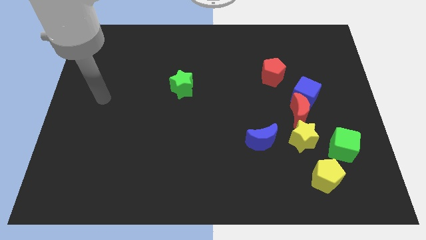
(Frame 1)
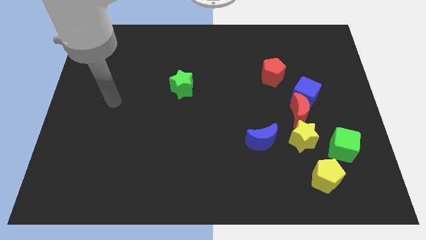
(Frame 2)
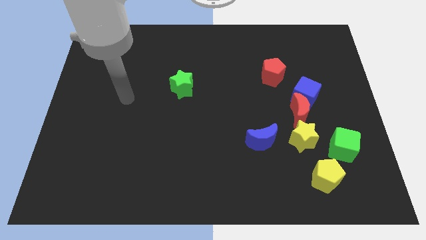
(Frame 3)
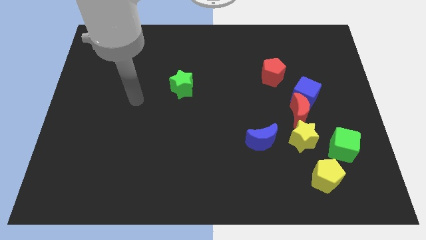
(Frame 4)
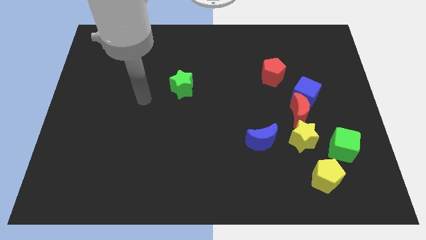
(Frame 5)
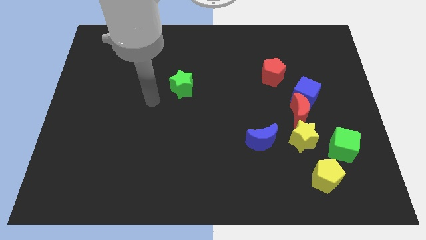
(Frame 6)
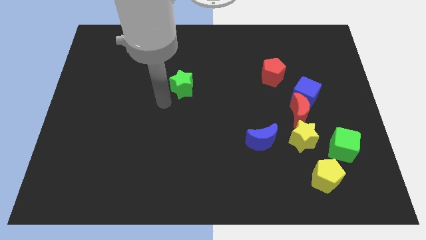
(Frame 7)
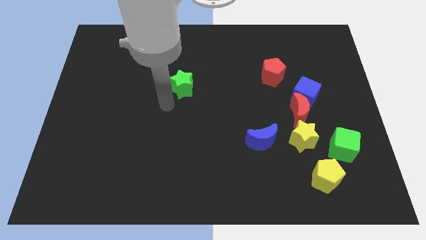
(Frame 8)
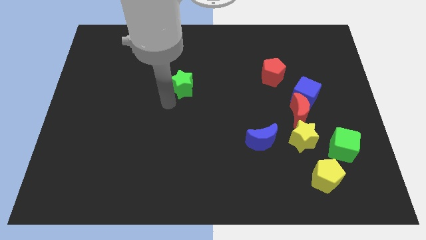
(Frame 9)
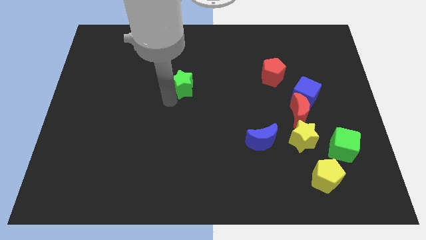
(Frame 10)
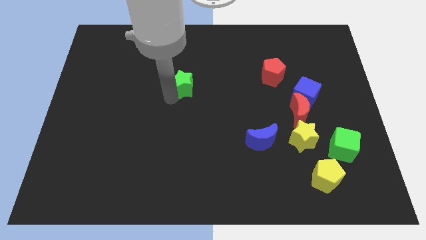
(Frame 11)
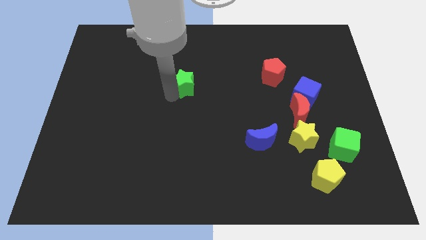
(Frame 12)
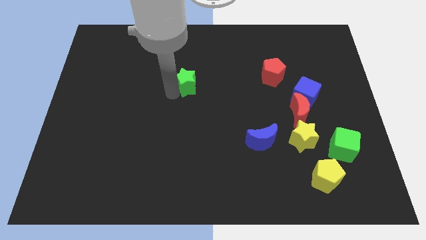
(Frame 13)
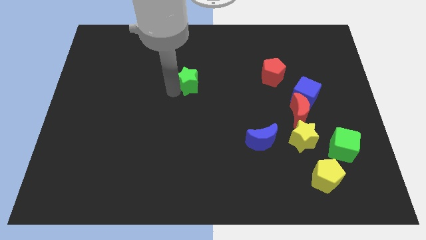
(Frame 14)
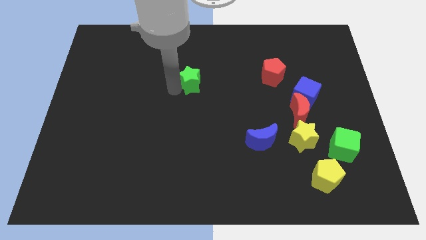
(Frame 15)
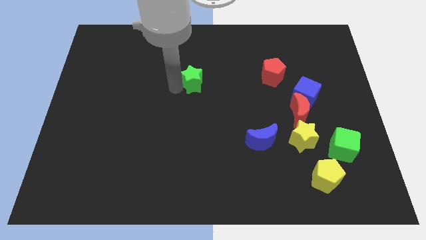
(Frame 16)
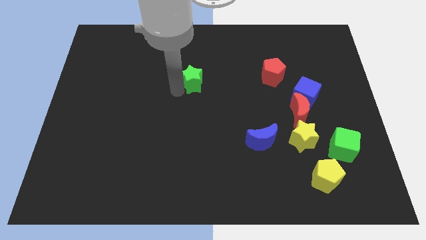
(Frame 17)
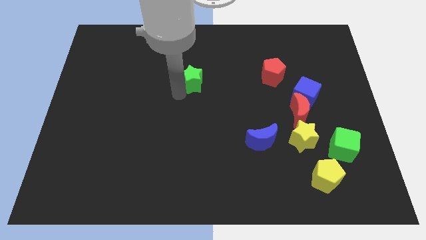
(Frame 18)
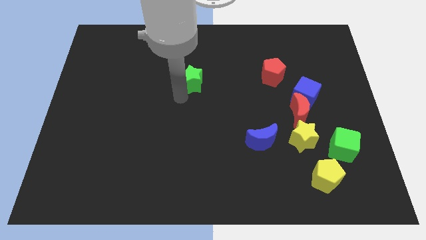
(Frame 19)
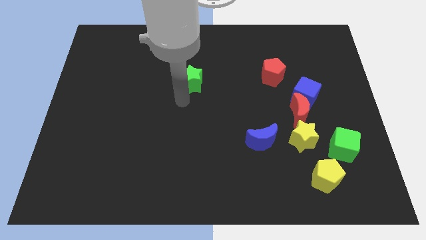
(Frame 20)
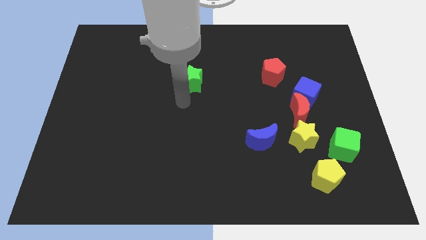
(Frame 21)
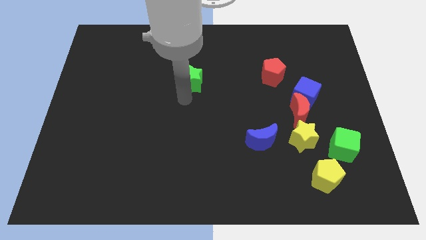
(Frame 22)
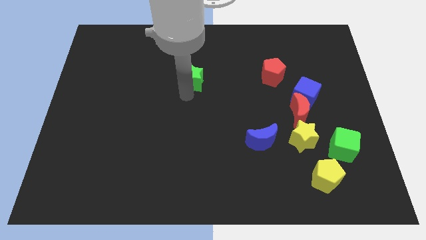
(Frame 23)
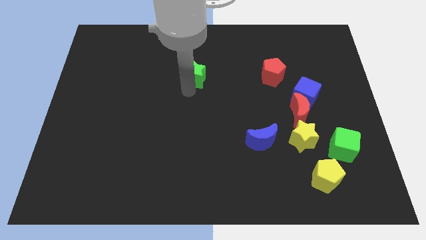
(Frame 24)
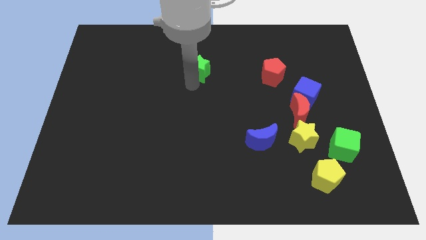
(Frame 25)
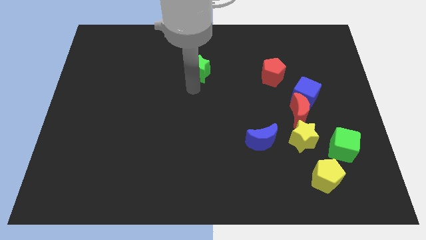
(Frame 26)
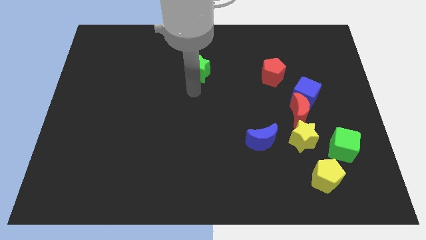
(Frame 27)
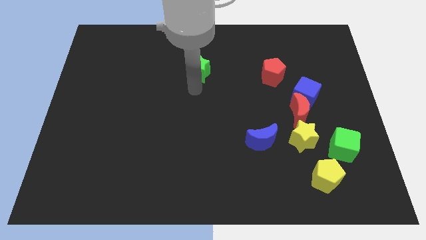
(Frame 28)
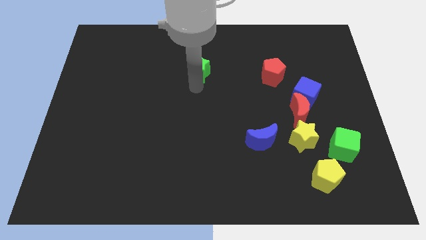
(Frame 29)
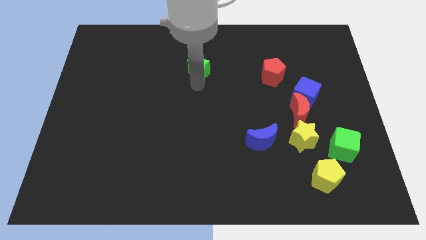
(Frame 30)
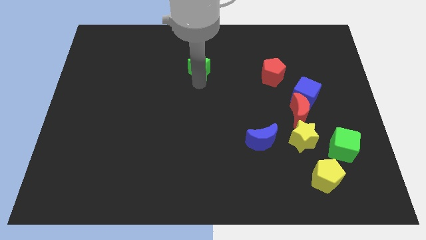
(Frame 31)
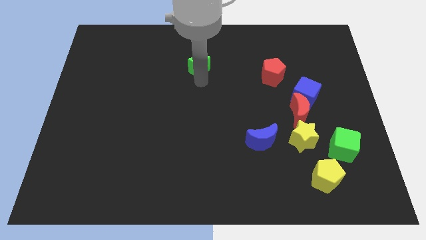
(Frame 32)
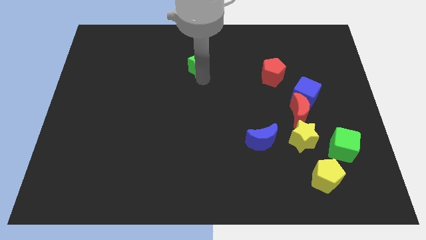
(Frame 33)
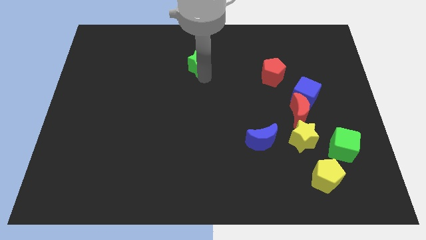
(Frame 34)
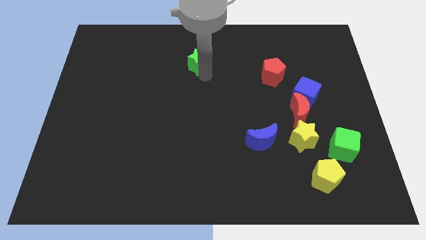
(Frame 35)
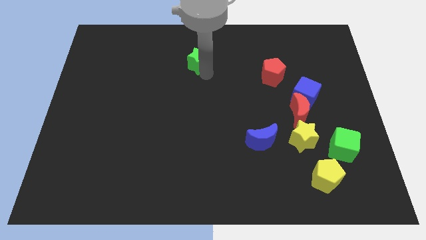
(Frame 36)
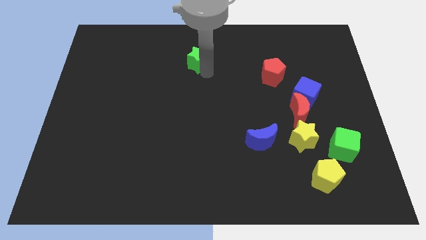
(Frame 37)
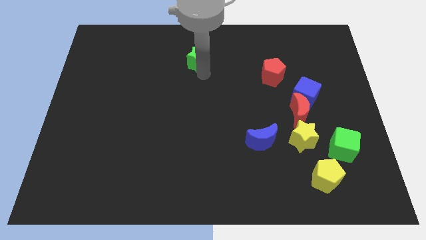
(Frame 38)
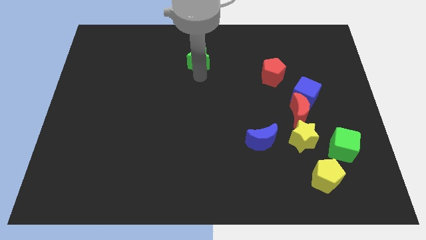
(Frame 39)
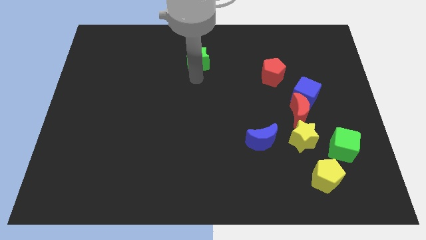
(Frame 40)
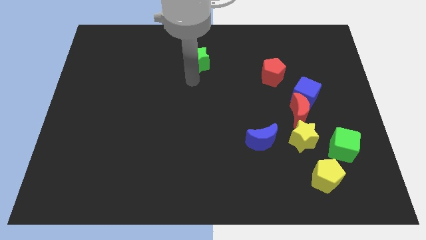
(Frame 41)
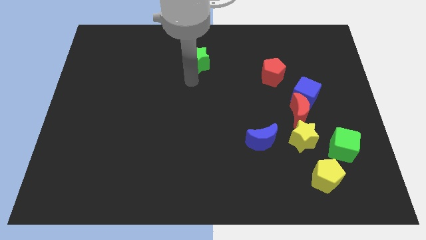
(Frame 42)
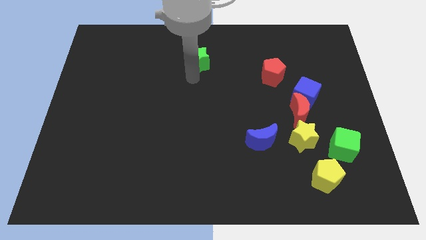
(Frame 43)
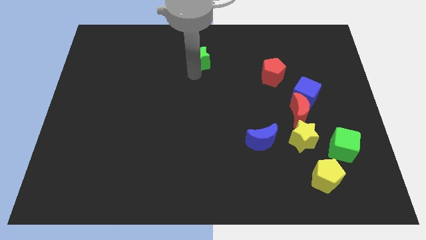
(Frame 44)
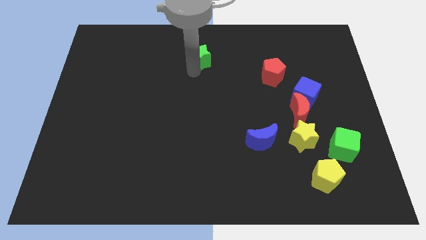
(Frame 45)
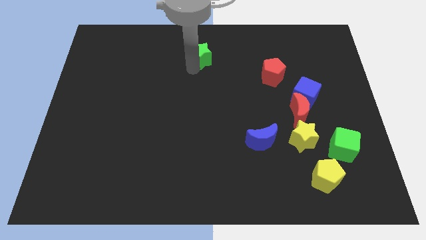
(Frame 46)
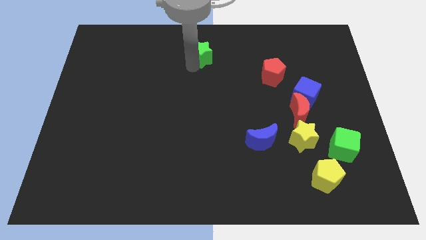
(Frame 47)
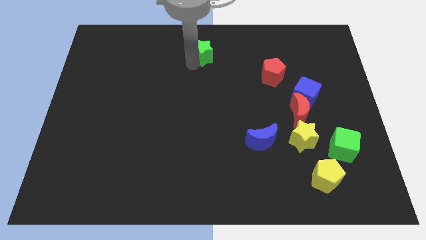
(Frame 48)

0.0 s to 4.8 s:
move the green star to the top side

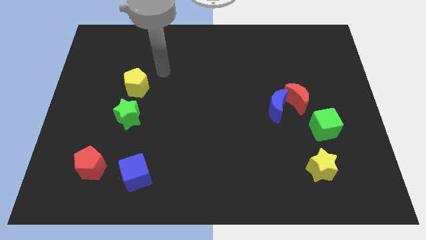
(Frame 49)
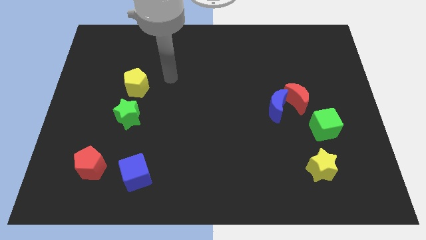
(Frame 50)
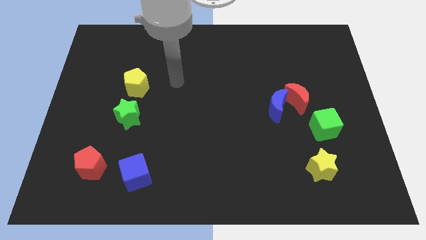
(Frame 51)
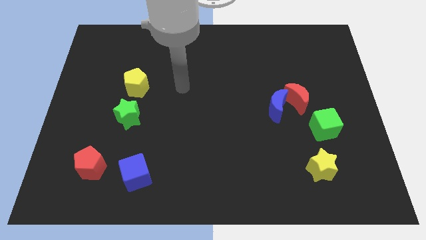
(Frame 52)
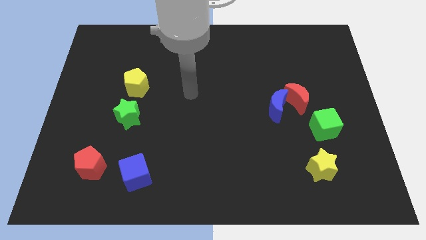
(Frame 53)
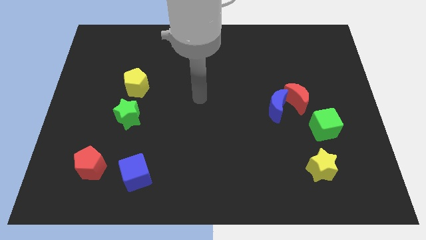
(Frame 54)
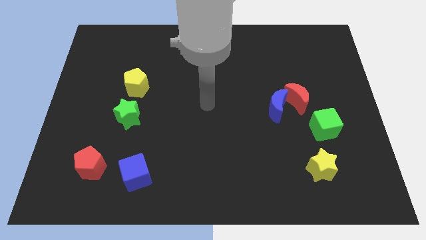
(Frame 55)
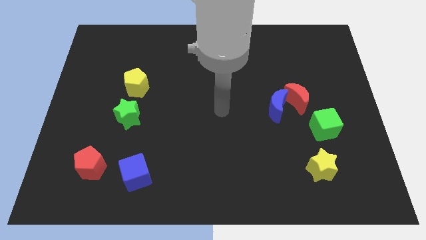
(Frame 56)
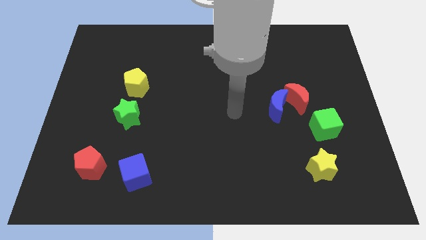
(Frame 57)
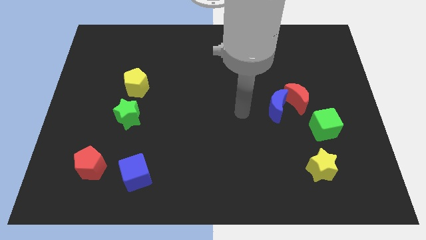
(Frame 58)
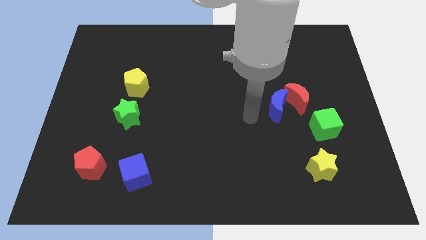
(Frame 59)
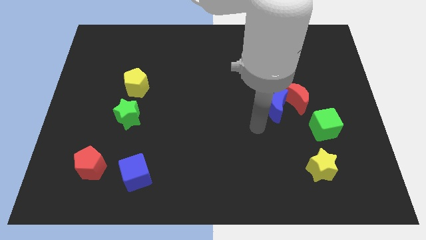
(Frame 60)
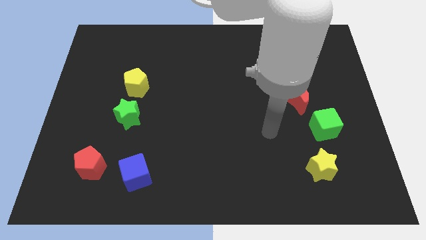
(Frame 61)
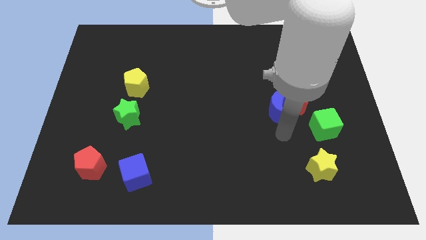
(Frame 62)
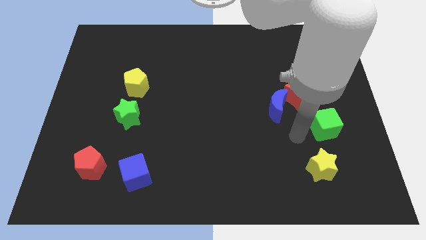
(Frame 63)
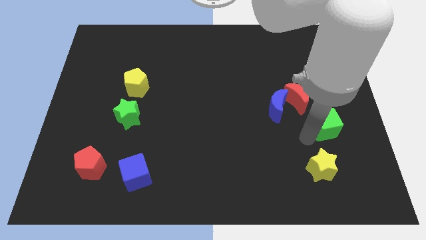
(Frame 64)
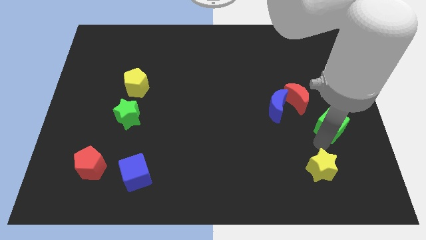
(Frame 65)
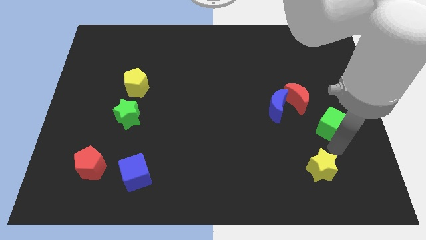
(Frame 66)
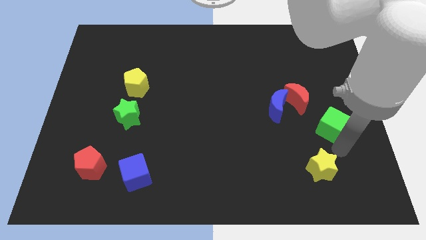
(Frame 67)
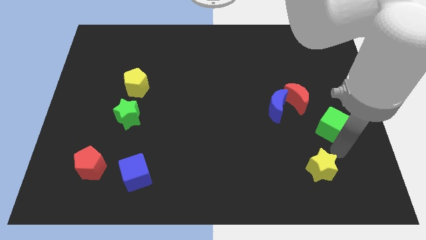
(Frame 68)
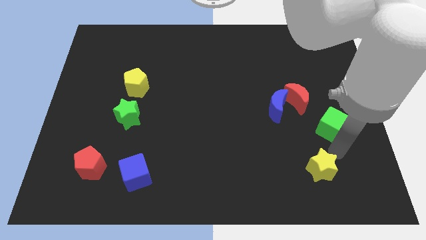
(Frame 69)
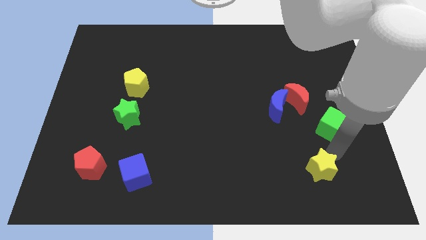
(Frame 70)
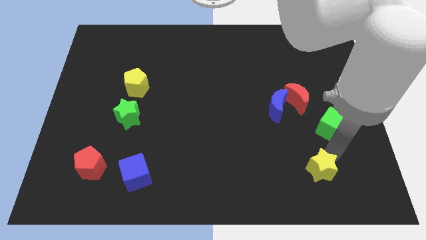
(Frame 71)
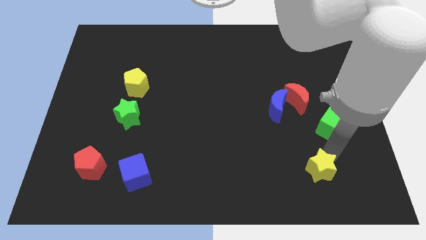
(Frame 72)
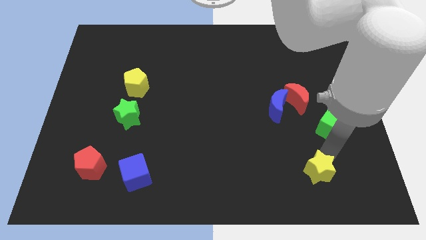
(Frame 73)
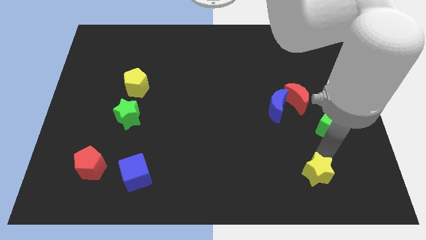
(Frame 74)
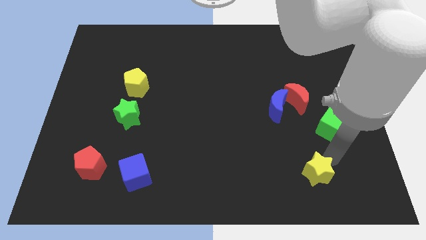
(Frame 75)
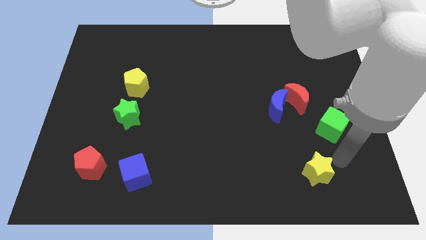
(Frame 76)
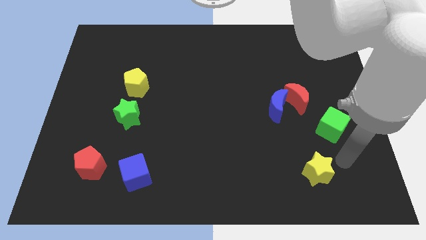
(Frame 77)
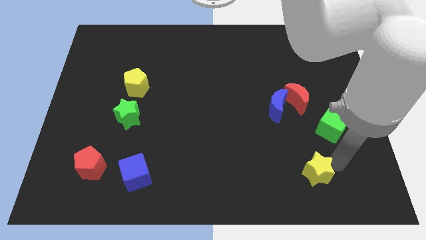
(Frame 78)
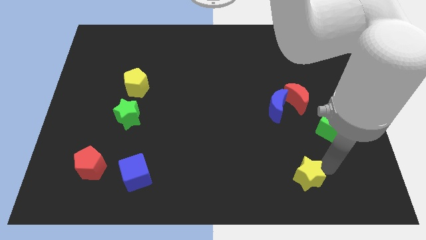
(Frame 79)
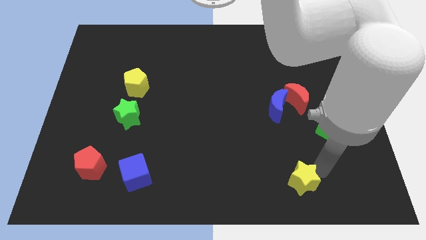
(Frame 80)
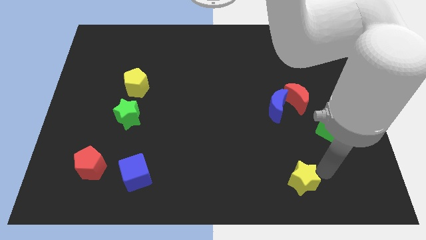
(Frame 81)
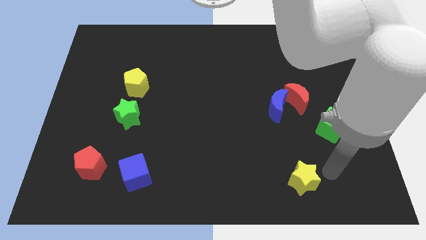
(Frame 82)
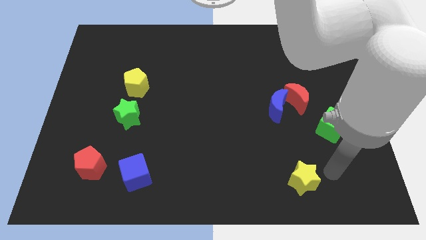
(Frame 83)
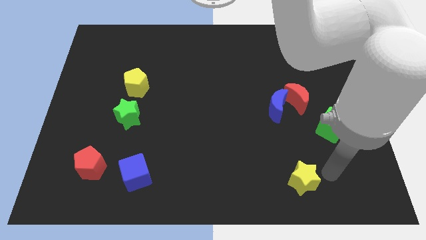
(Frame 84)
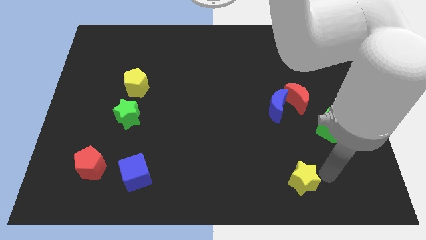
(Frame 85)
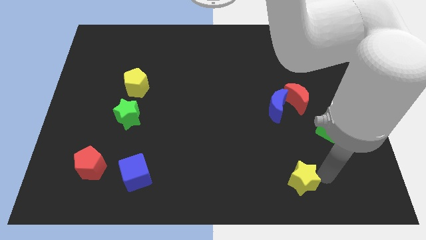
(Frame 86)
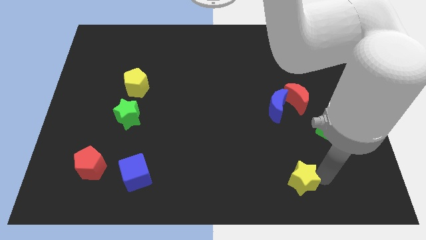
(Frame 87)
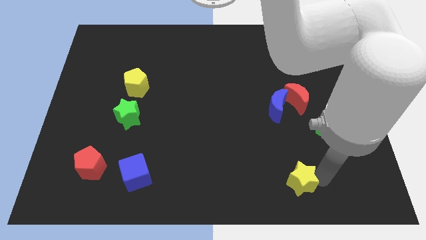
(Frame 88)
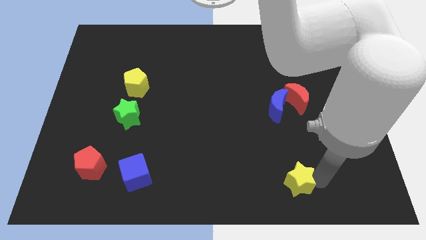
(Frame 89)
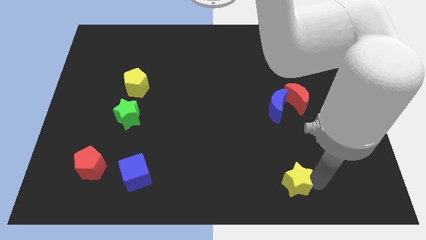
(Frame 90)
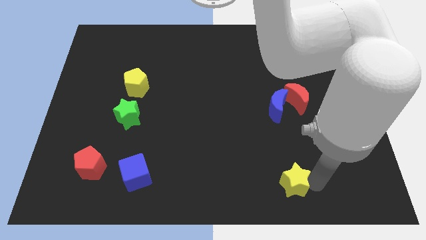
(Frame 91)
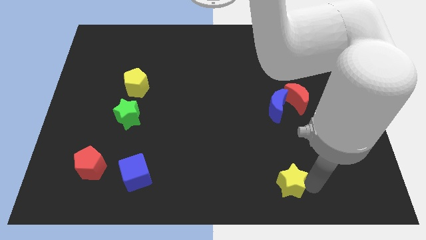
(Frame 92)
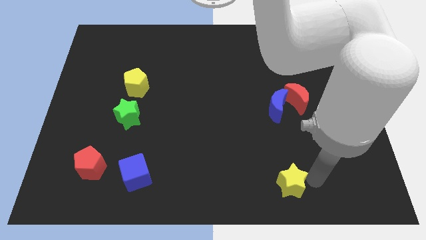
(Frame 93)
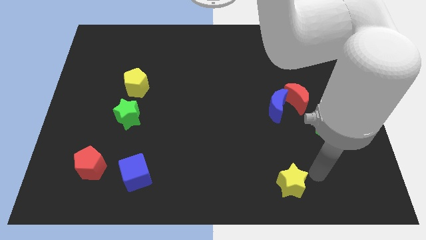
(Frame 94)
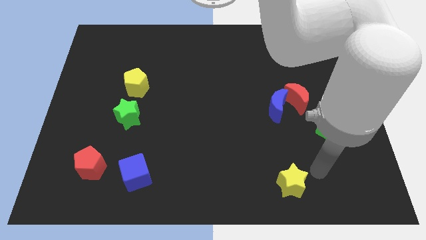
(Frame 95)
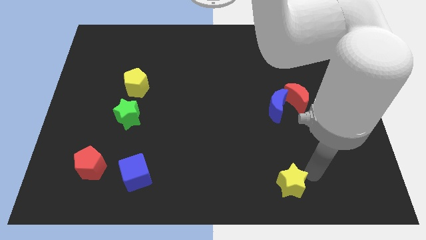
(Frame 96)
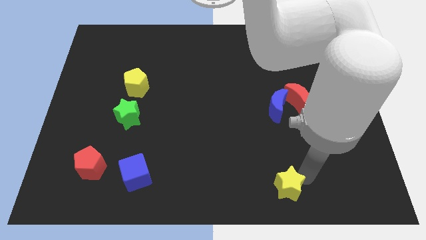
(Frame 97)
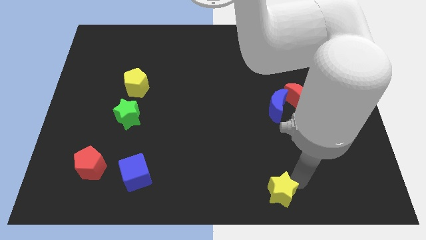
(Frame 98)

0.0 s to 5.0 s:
slide the yellow star to the bottom side
